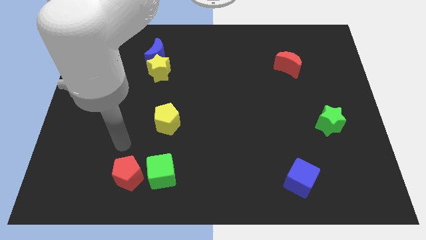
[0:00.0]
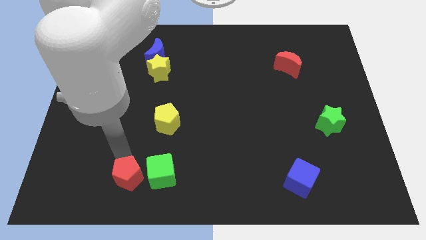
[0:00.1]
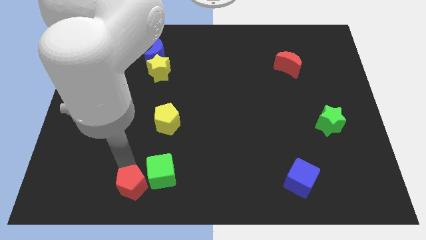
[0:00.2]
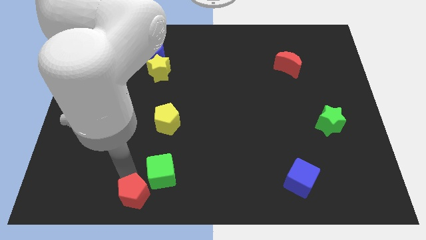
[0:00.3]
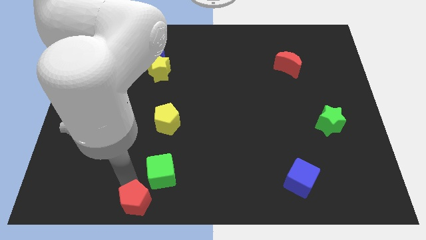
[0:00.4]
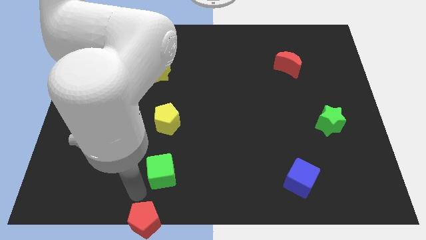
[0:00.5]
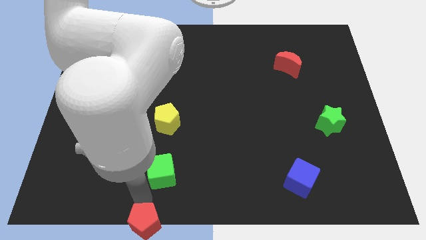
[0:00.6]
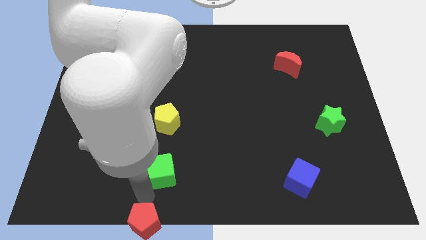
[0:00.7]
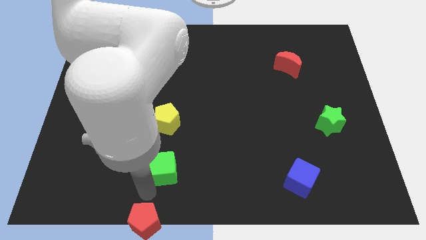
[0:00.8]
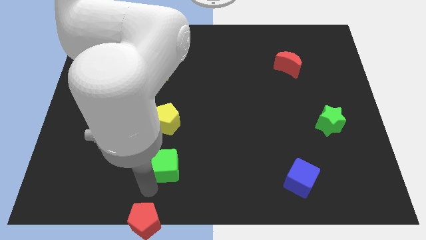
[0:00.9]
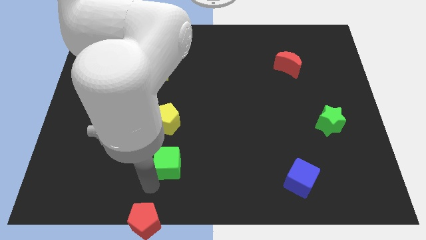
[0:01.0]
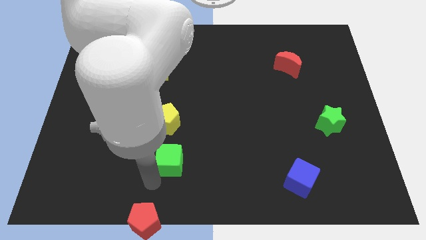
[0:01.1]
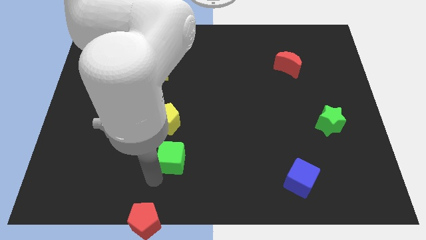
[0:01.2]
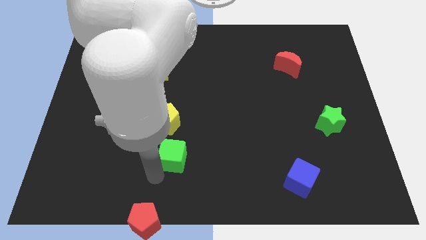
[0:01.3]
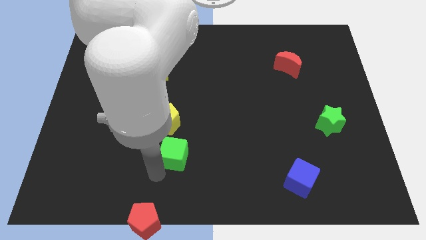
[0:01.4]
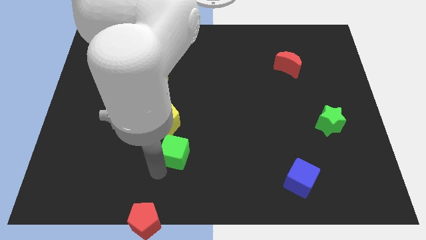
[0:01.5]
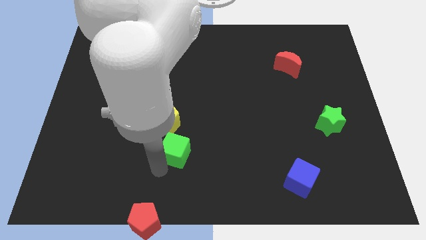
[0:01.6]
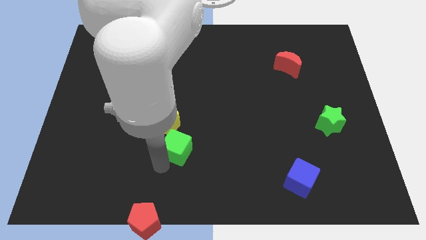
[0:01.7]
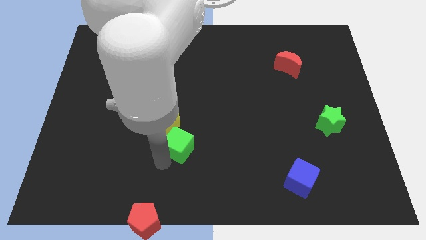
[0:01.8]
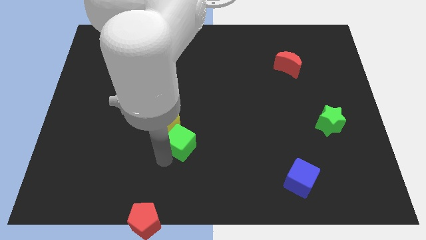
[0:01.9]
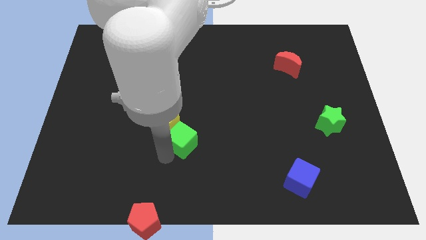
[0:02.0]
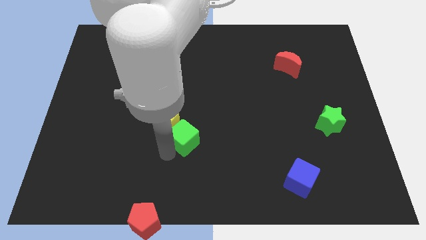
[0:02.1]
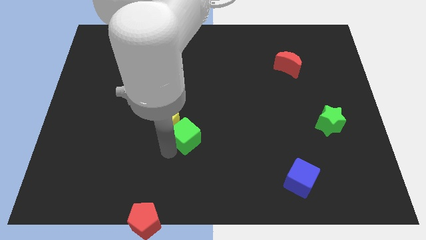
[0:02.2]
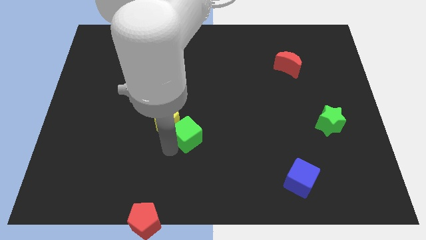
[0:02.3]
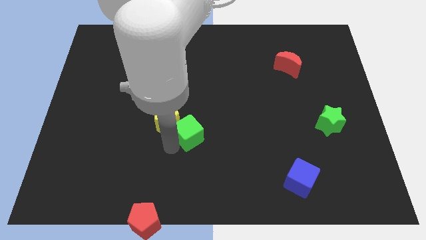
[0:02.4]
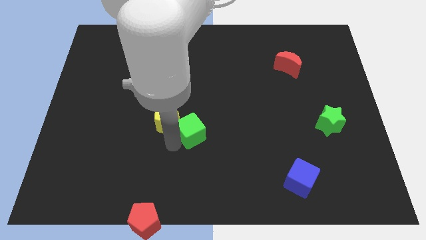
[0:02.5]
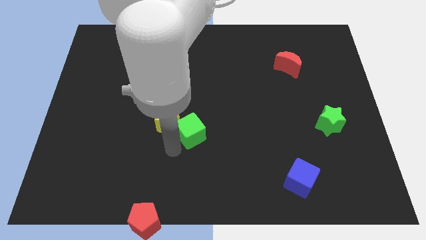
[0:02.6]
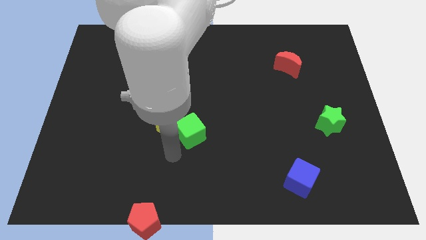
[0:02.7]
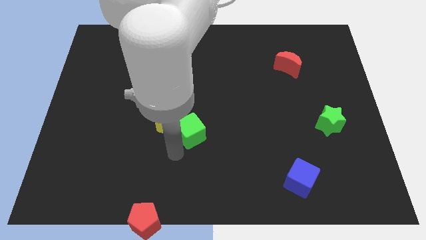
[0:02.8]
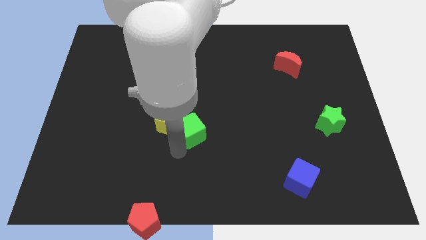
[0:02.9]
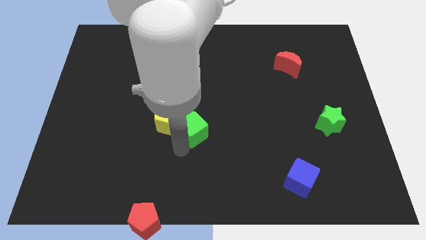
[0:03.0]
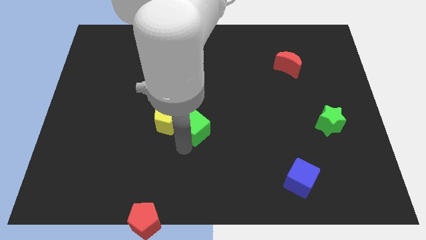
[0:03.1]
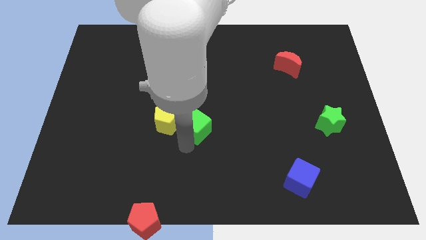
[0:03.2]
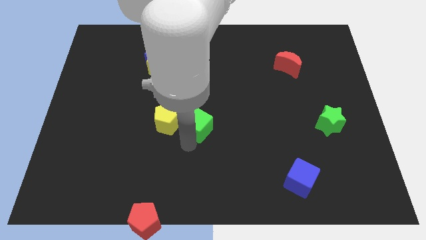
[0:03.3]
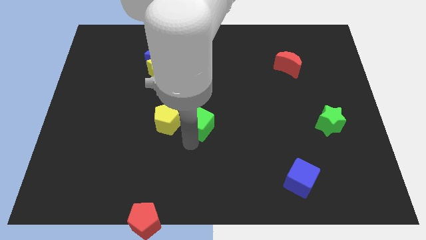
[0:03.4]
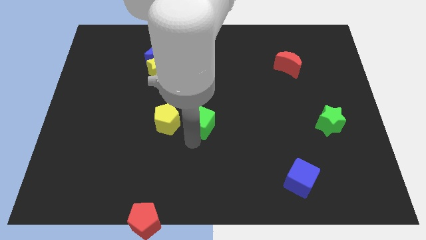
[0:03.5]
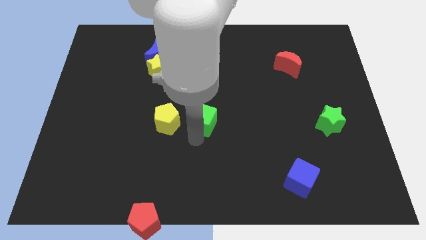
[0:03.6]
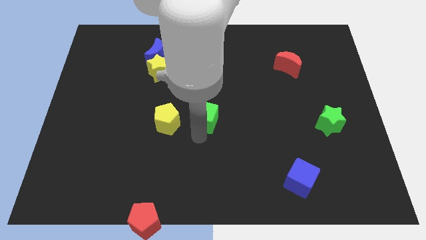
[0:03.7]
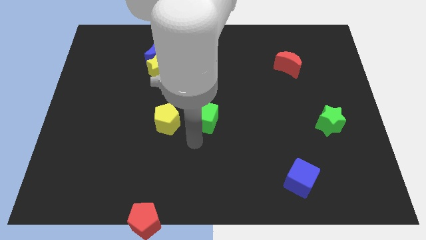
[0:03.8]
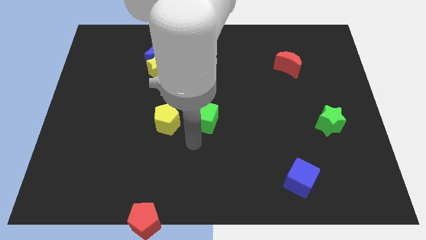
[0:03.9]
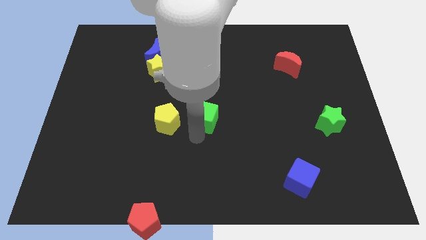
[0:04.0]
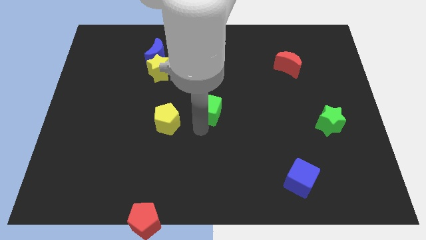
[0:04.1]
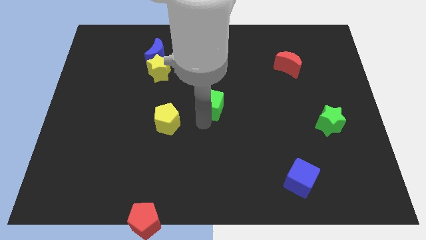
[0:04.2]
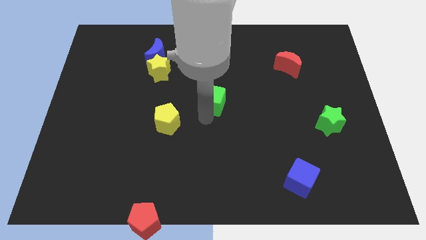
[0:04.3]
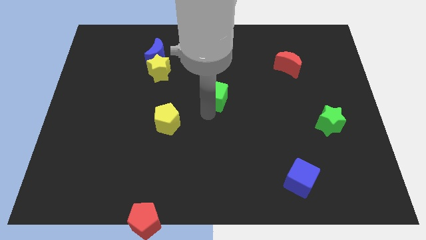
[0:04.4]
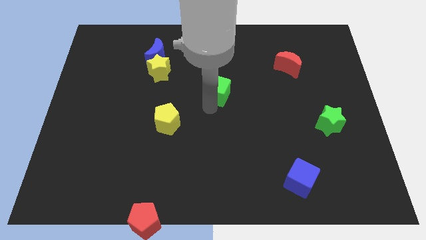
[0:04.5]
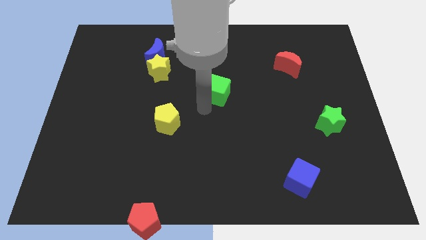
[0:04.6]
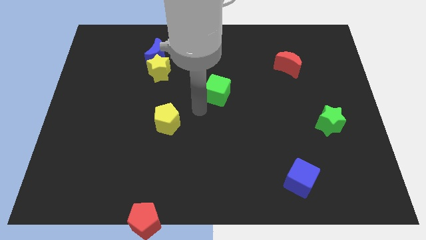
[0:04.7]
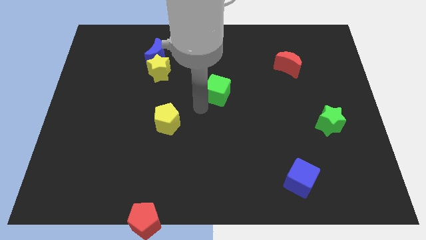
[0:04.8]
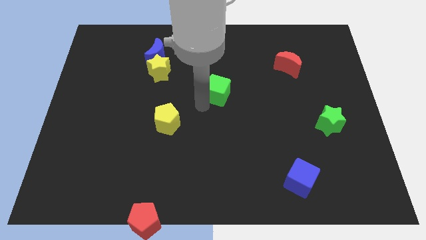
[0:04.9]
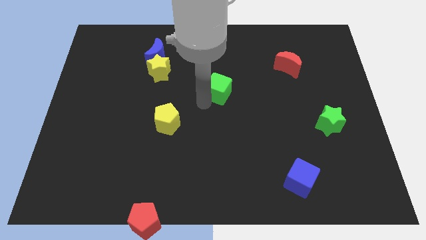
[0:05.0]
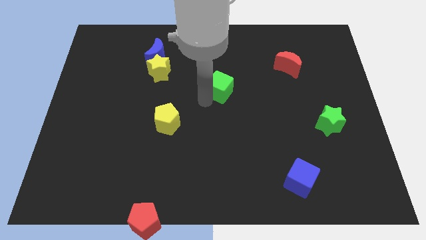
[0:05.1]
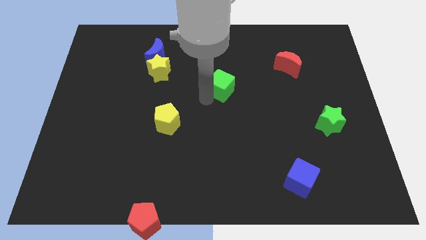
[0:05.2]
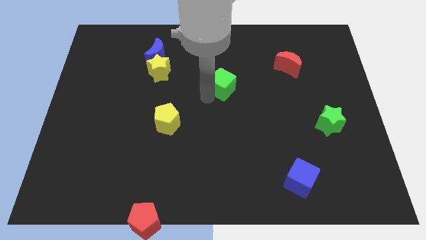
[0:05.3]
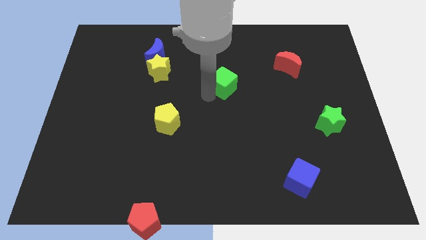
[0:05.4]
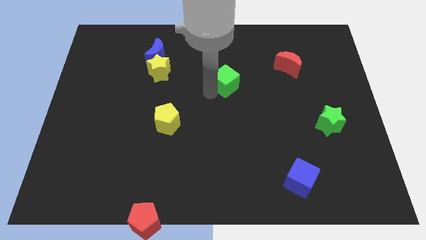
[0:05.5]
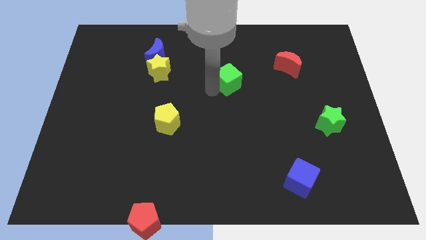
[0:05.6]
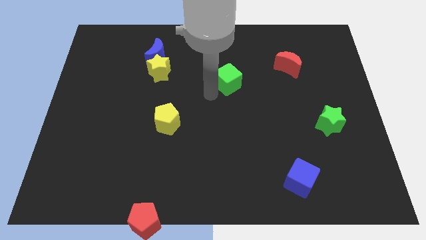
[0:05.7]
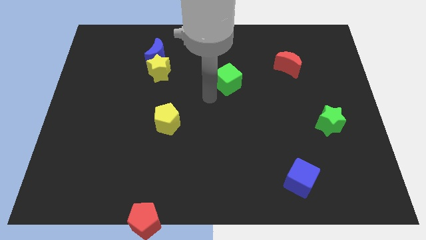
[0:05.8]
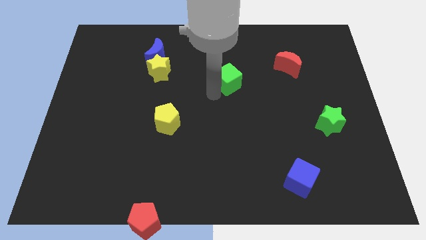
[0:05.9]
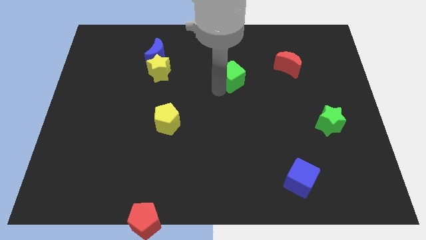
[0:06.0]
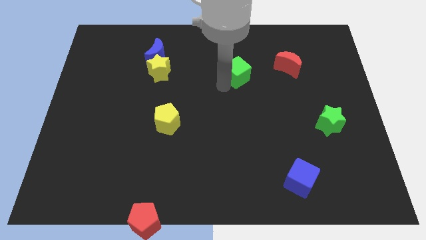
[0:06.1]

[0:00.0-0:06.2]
put the green cube just left of the red moon

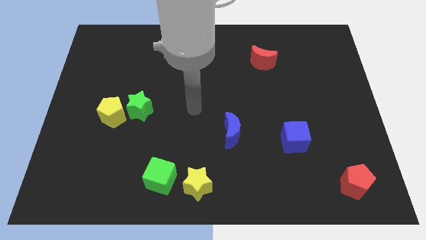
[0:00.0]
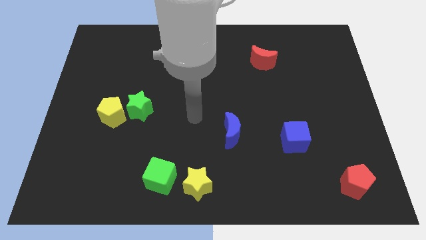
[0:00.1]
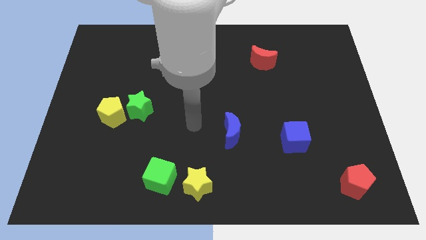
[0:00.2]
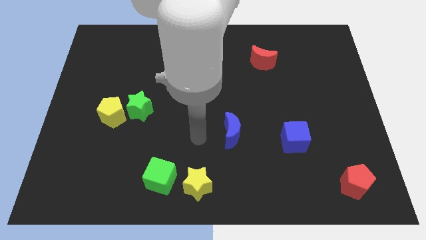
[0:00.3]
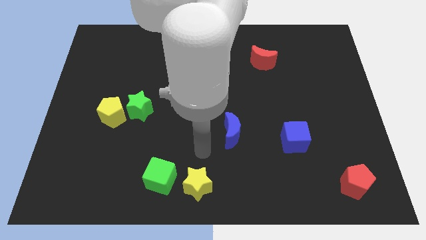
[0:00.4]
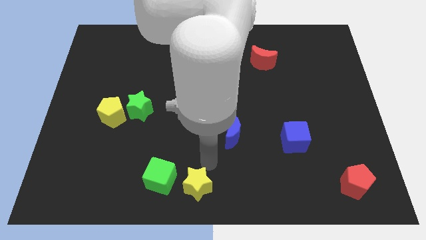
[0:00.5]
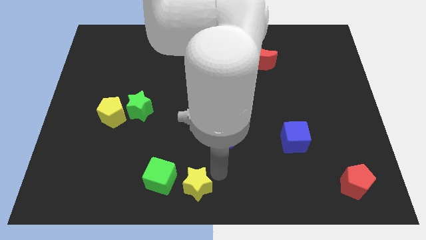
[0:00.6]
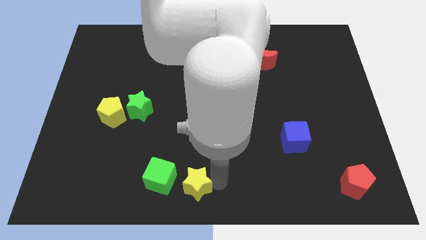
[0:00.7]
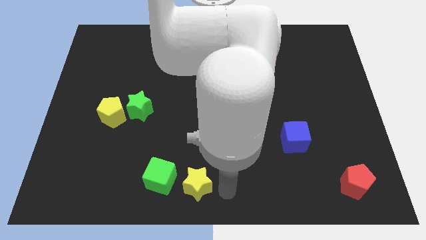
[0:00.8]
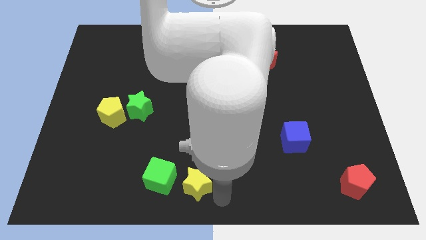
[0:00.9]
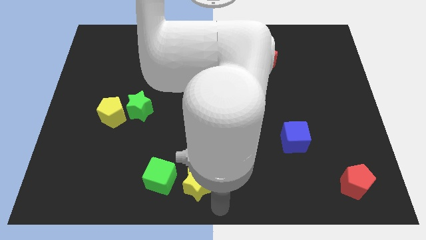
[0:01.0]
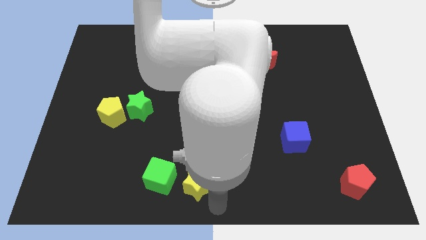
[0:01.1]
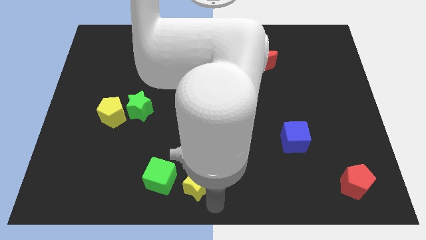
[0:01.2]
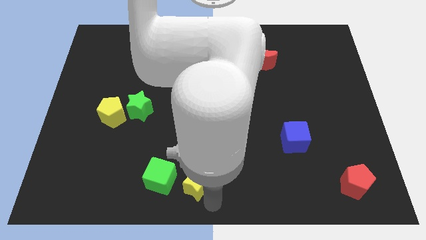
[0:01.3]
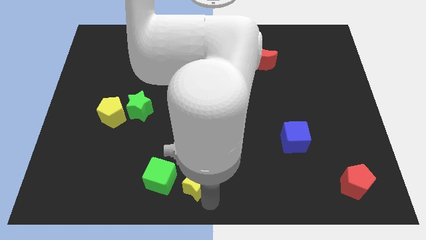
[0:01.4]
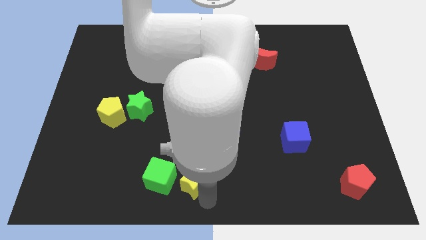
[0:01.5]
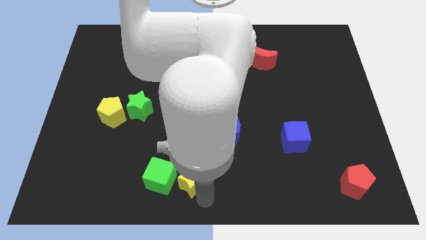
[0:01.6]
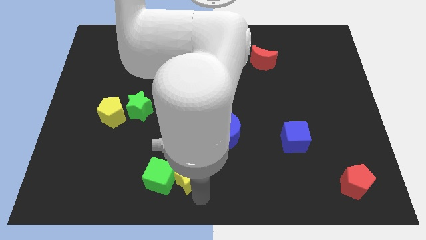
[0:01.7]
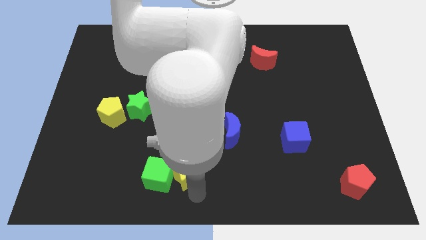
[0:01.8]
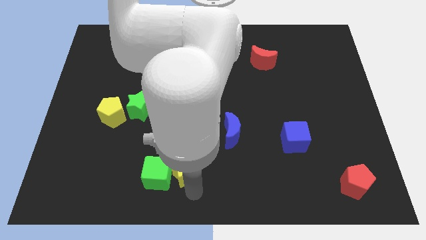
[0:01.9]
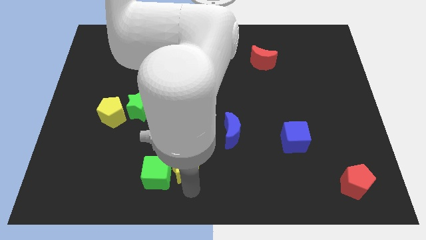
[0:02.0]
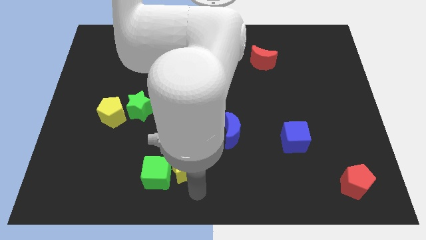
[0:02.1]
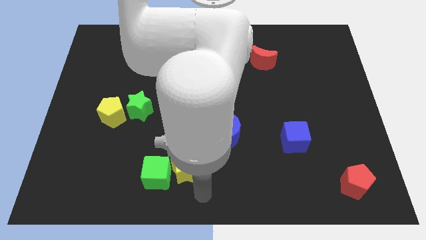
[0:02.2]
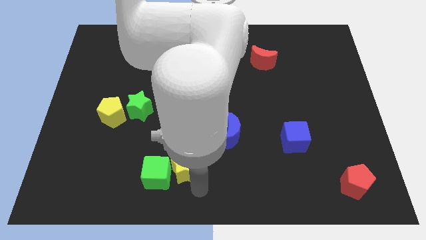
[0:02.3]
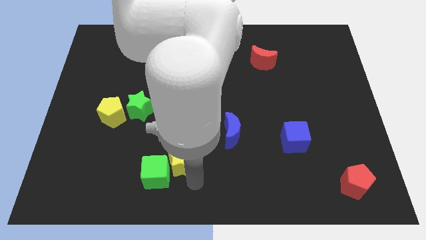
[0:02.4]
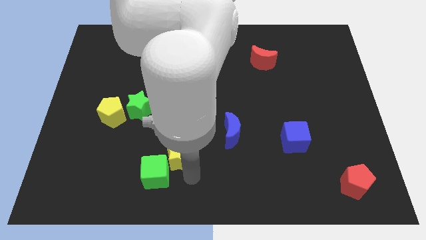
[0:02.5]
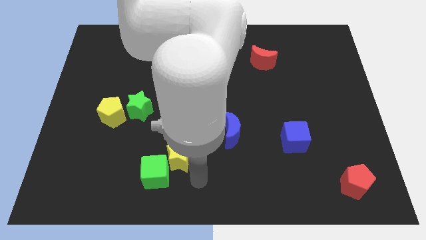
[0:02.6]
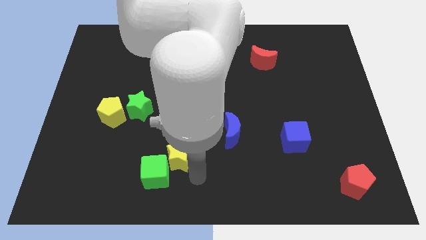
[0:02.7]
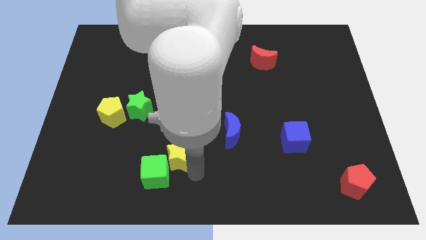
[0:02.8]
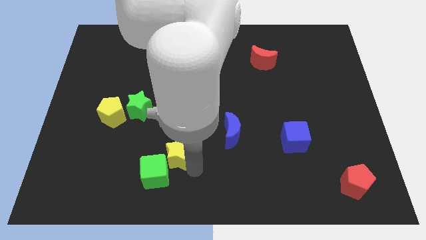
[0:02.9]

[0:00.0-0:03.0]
slide the yellow star to the top side of the green cube
